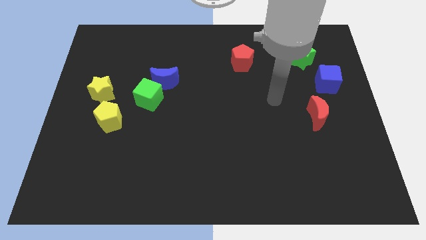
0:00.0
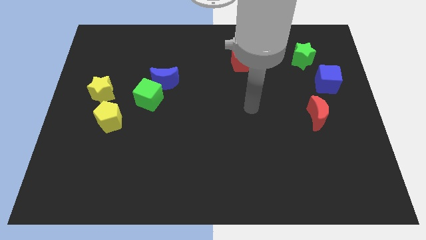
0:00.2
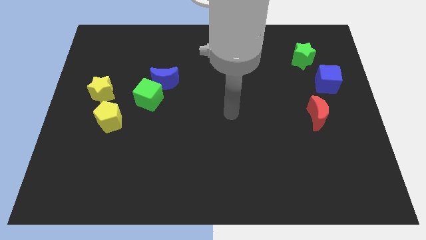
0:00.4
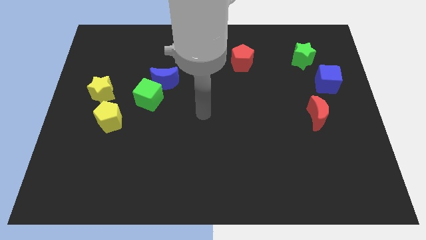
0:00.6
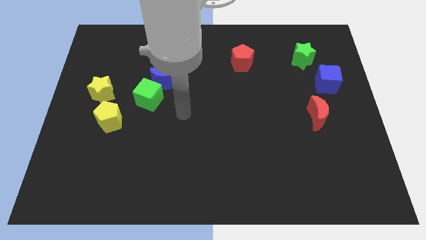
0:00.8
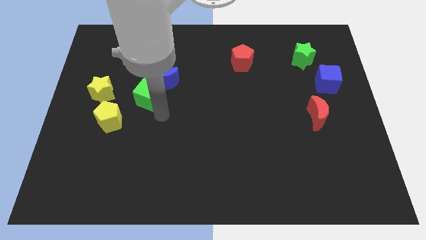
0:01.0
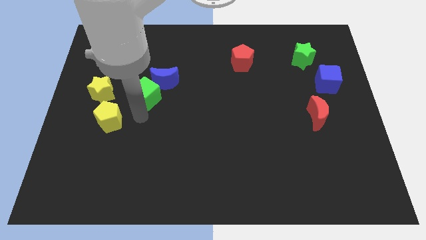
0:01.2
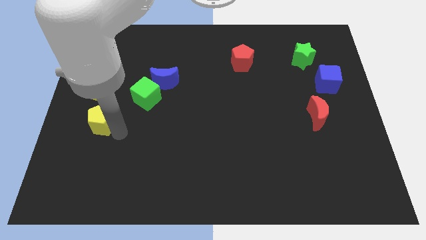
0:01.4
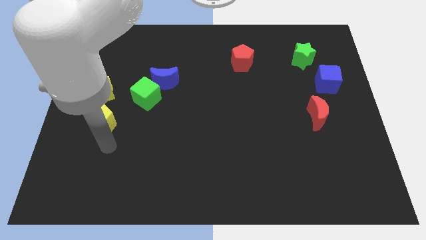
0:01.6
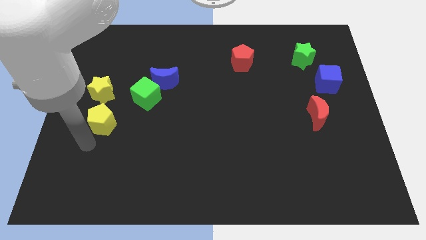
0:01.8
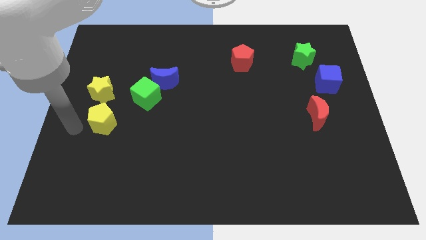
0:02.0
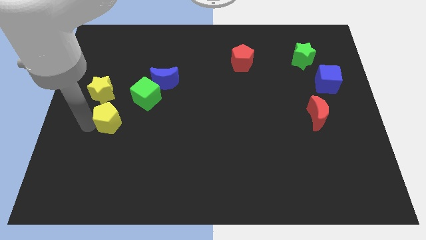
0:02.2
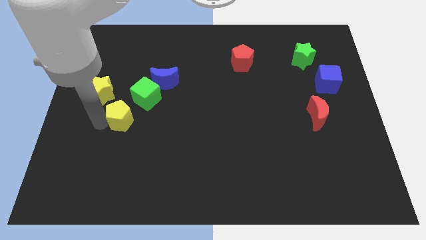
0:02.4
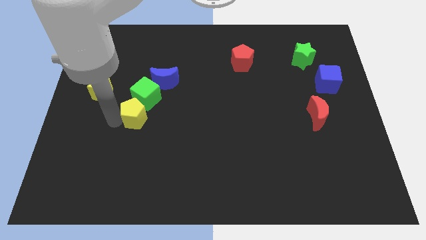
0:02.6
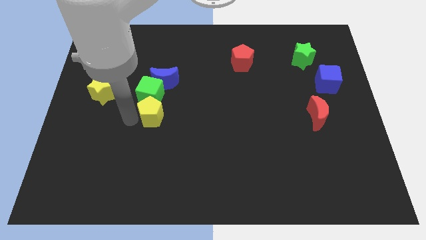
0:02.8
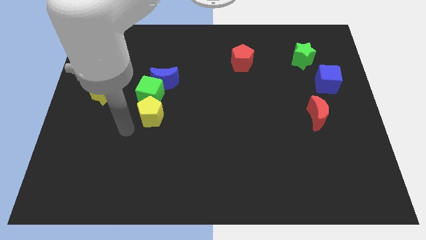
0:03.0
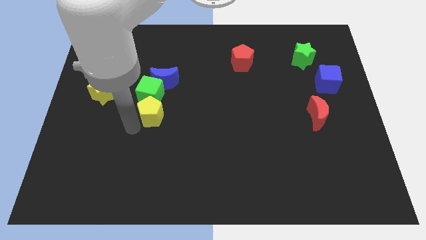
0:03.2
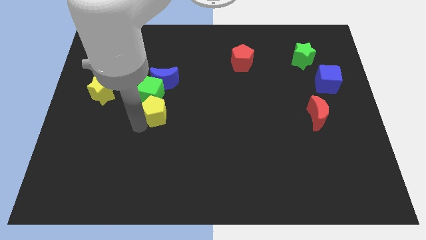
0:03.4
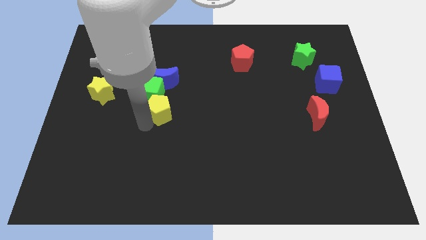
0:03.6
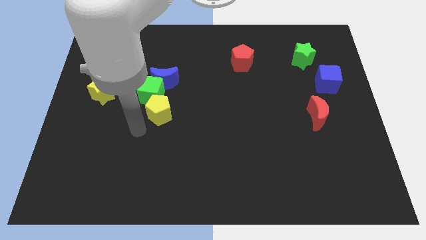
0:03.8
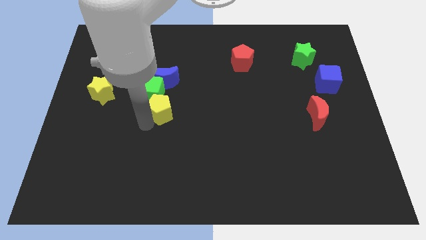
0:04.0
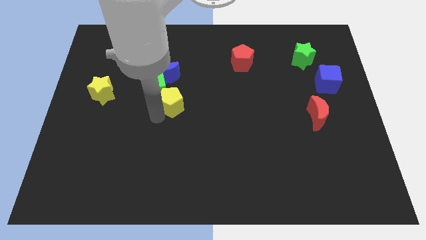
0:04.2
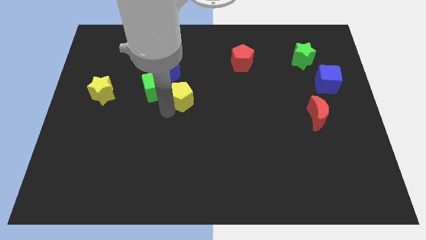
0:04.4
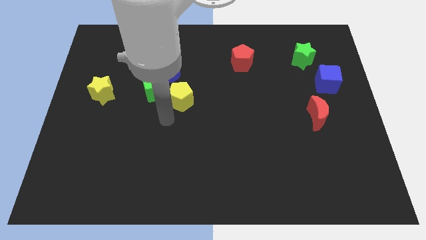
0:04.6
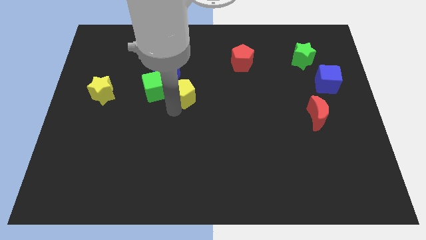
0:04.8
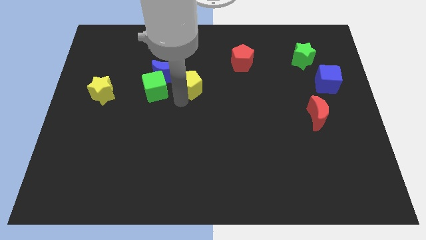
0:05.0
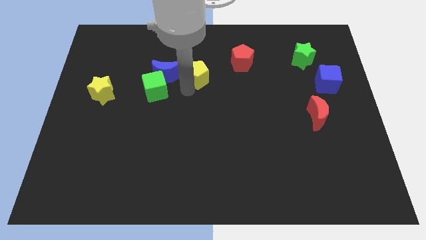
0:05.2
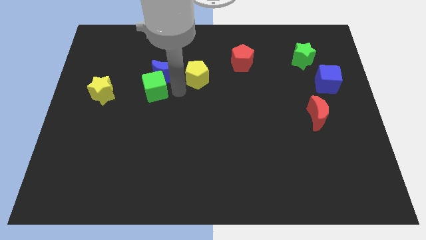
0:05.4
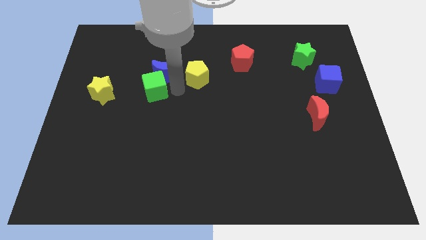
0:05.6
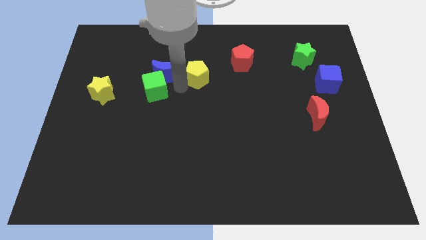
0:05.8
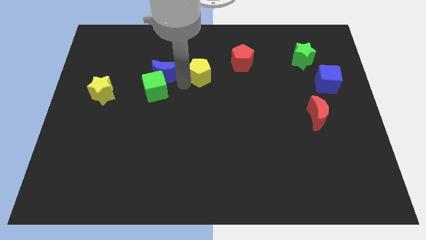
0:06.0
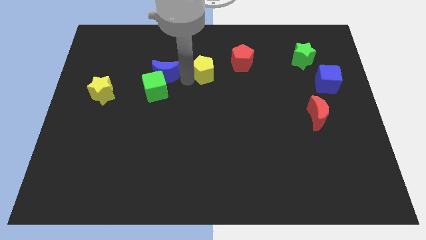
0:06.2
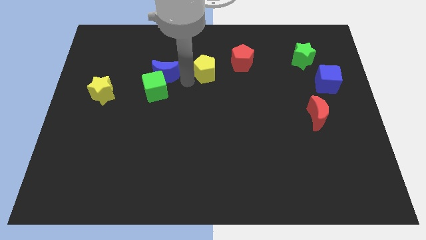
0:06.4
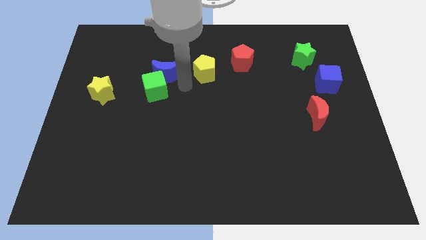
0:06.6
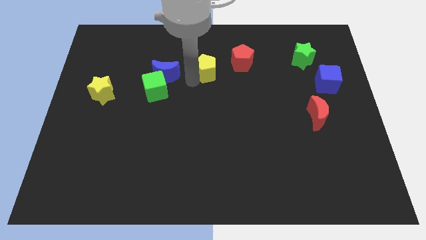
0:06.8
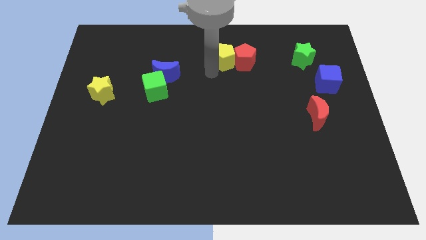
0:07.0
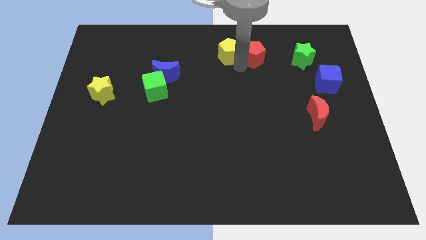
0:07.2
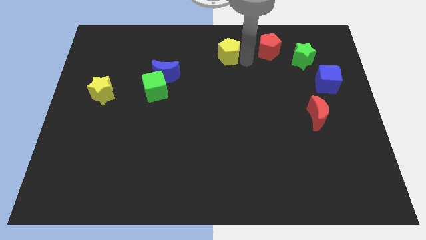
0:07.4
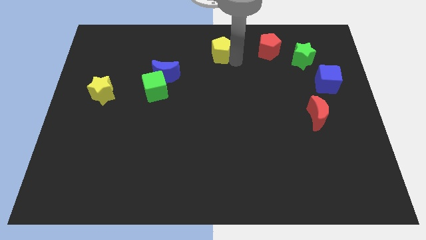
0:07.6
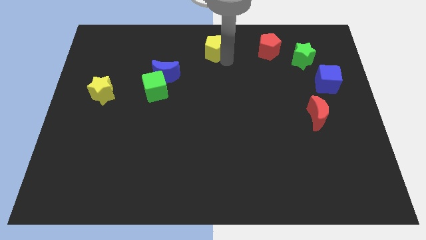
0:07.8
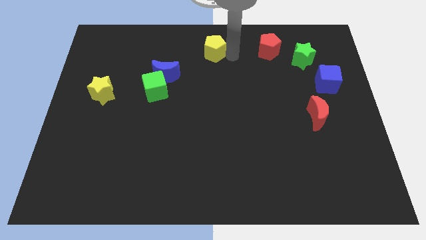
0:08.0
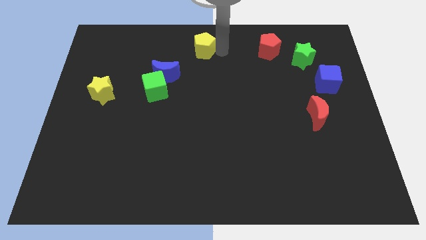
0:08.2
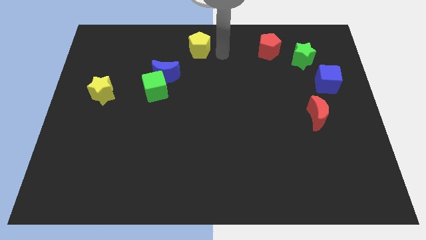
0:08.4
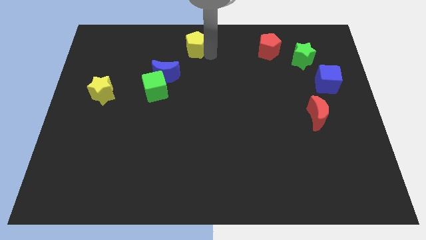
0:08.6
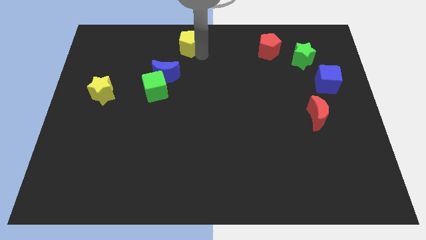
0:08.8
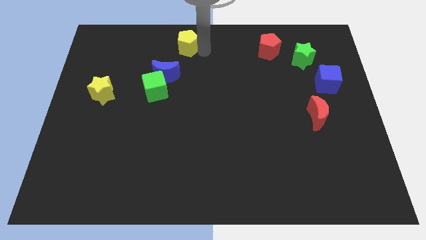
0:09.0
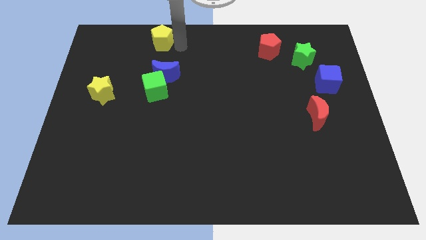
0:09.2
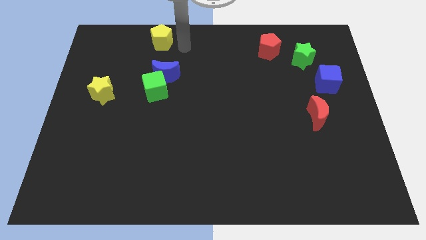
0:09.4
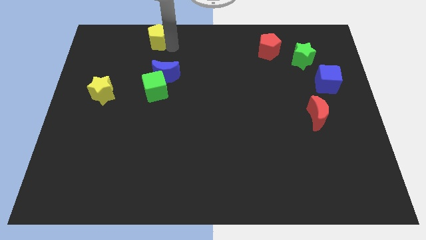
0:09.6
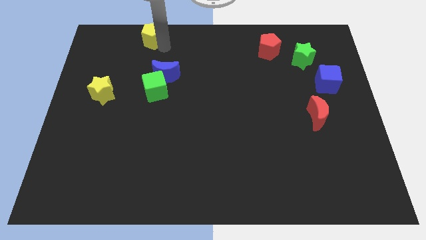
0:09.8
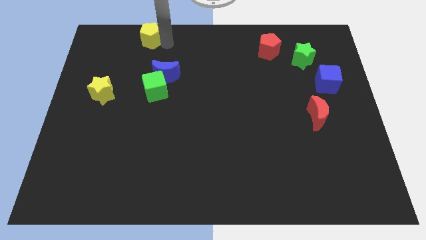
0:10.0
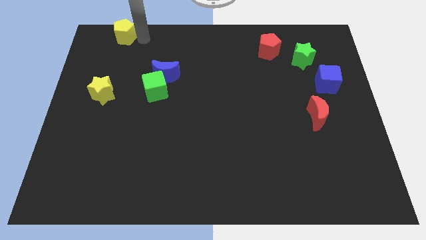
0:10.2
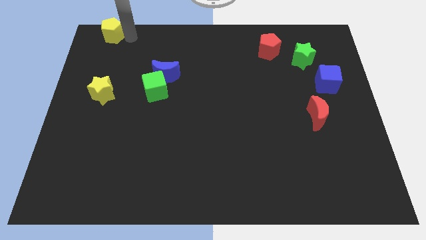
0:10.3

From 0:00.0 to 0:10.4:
slide the yellow pentagon to the upper left corner
